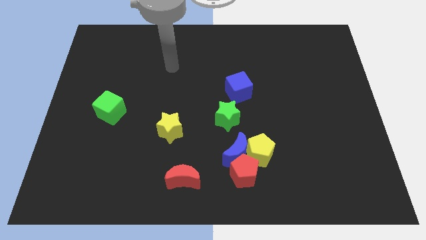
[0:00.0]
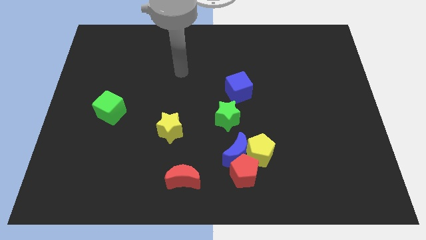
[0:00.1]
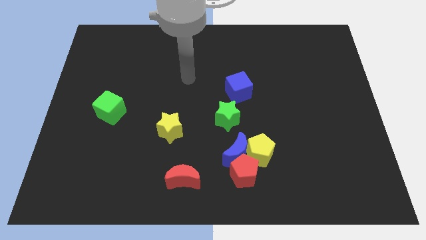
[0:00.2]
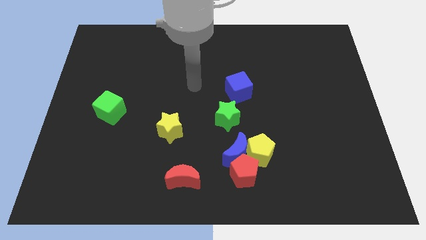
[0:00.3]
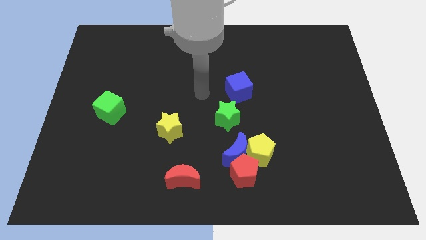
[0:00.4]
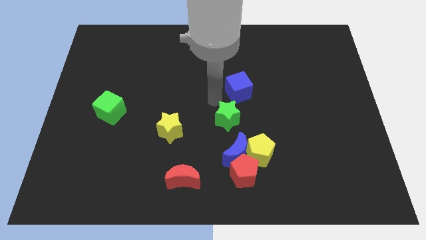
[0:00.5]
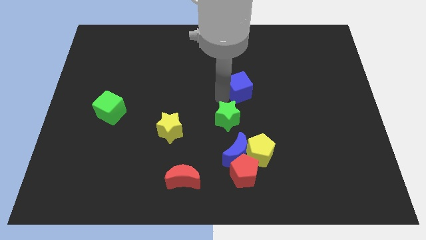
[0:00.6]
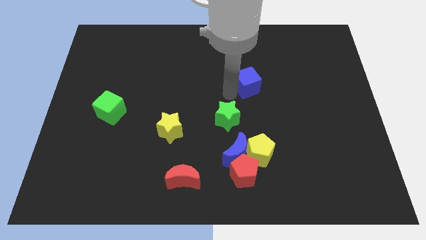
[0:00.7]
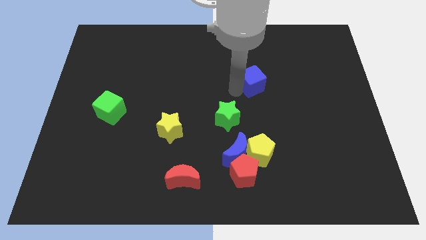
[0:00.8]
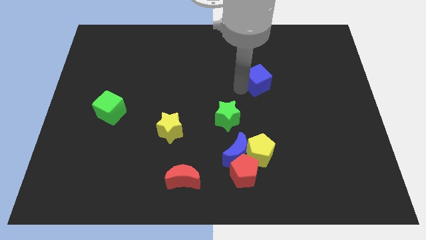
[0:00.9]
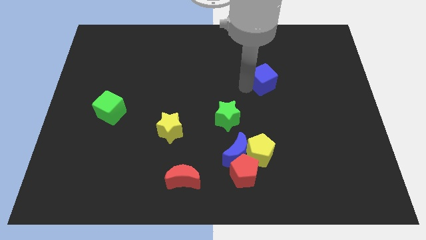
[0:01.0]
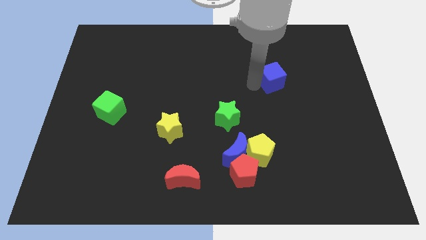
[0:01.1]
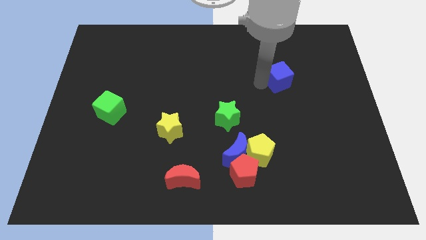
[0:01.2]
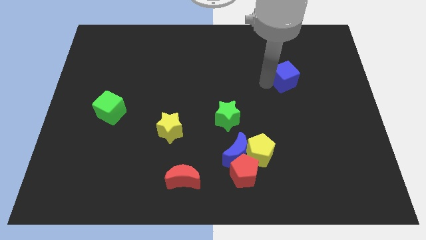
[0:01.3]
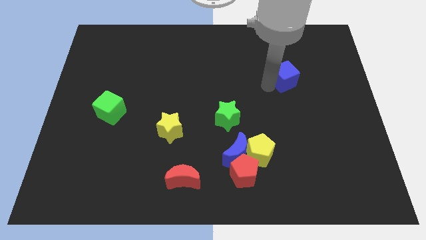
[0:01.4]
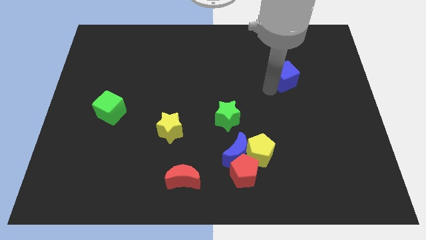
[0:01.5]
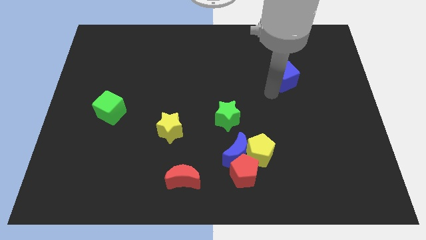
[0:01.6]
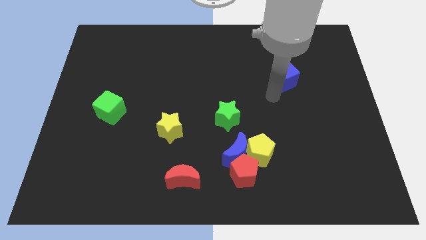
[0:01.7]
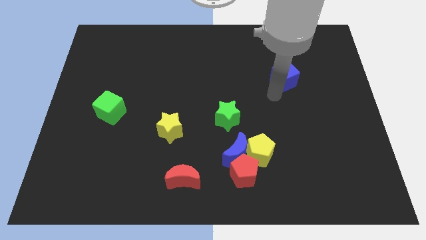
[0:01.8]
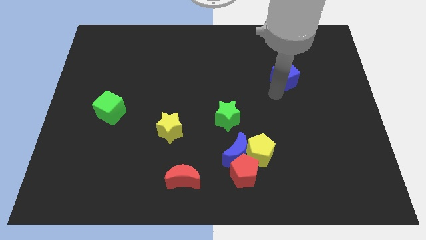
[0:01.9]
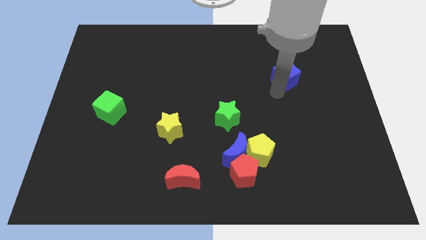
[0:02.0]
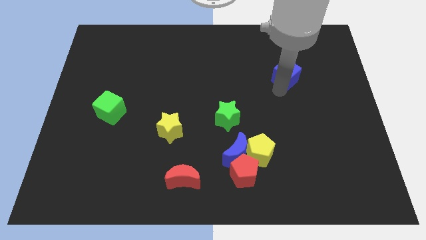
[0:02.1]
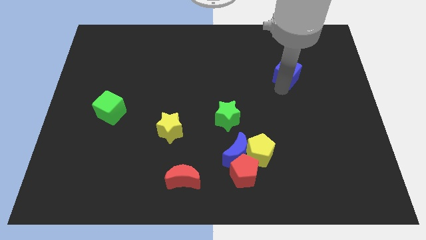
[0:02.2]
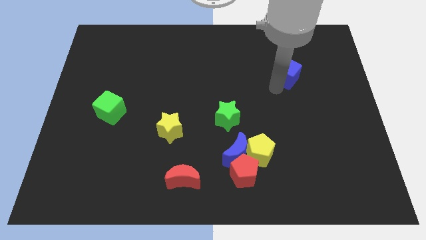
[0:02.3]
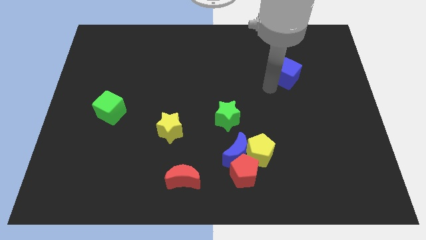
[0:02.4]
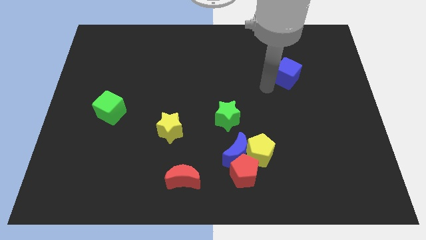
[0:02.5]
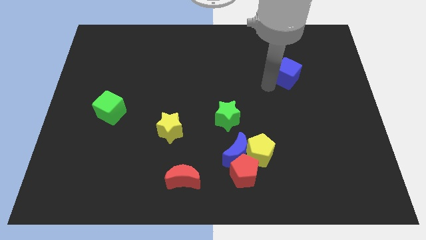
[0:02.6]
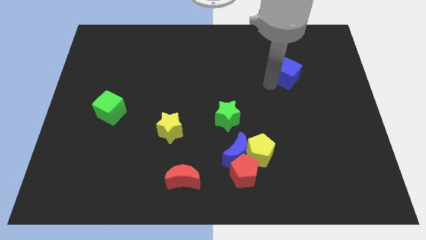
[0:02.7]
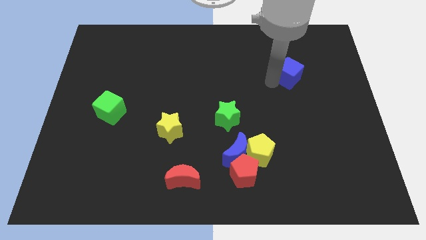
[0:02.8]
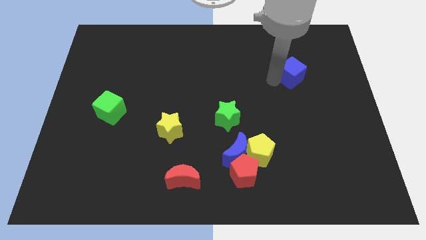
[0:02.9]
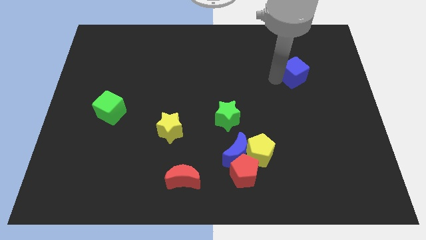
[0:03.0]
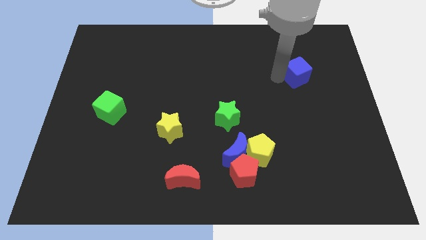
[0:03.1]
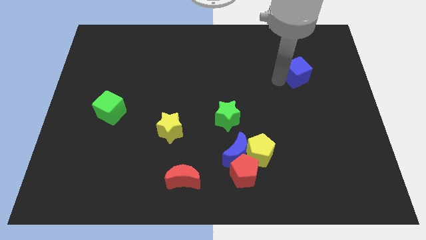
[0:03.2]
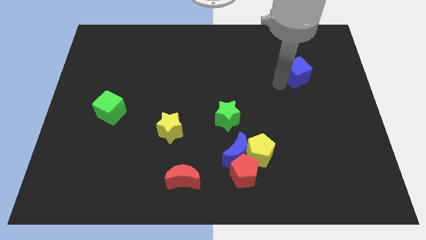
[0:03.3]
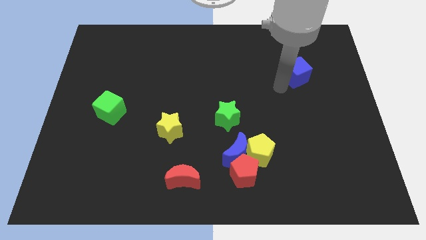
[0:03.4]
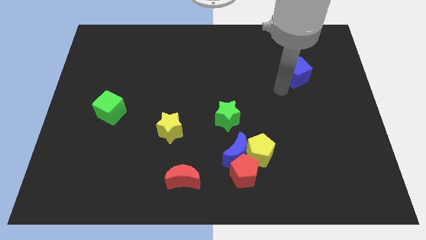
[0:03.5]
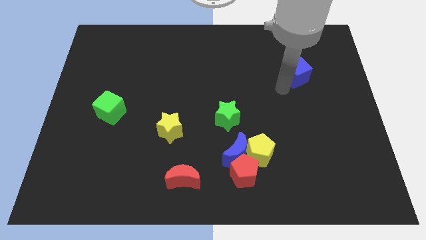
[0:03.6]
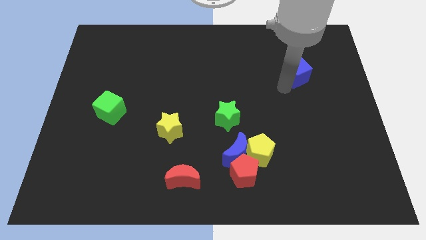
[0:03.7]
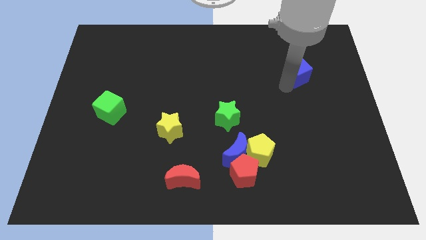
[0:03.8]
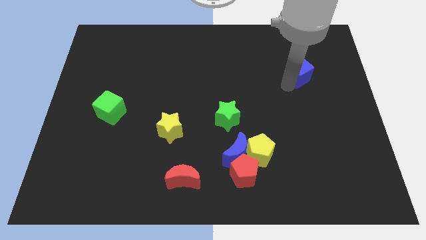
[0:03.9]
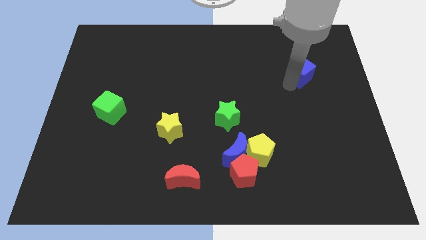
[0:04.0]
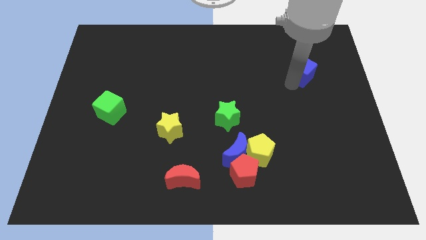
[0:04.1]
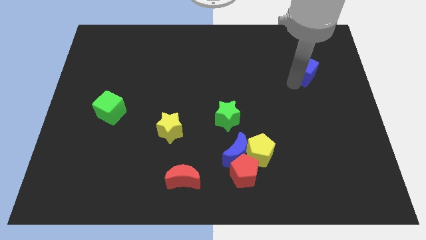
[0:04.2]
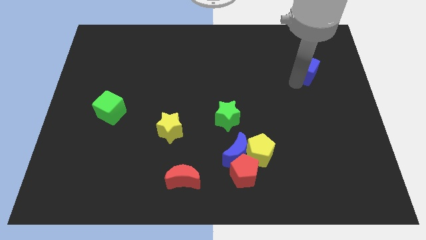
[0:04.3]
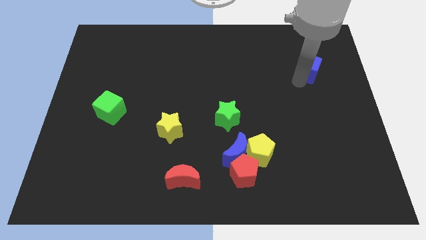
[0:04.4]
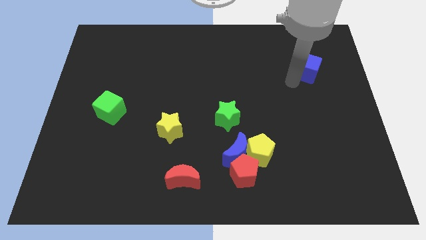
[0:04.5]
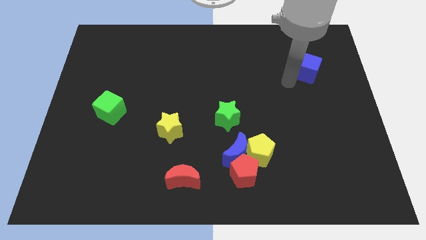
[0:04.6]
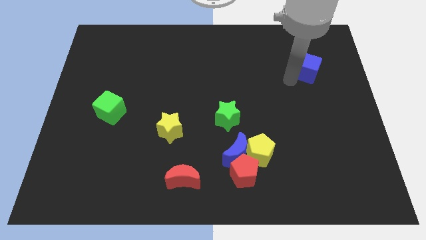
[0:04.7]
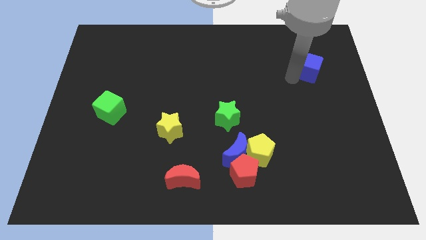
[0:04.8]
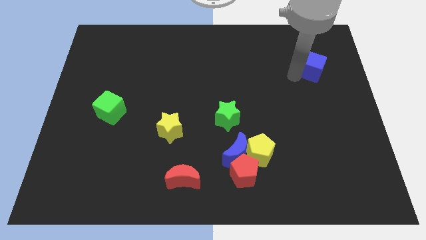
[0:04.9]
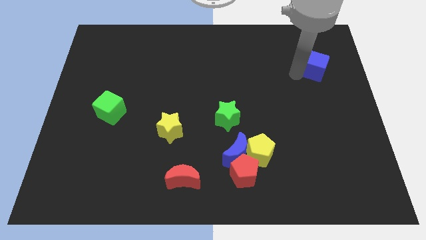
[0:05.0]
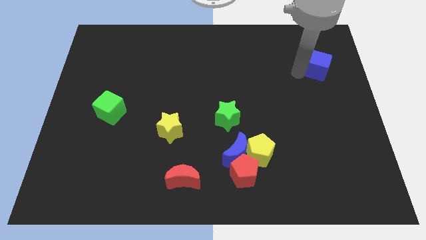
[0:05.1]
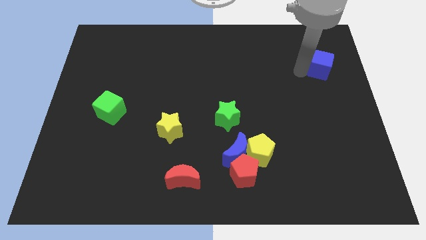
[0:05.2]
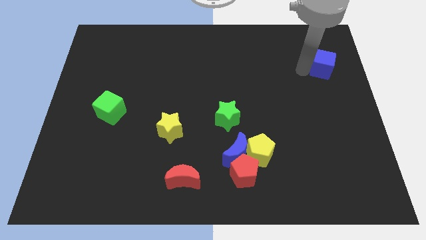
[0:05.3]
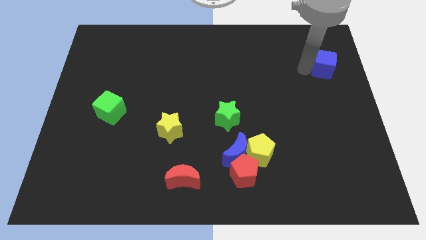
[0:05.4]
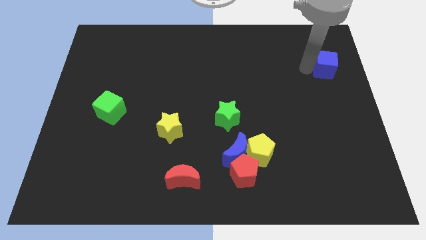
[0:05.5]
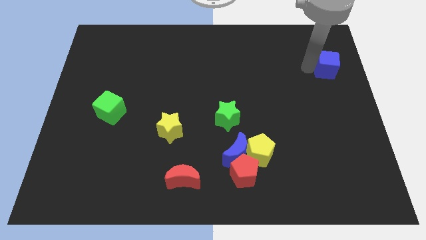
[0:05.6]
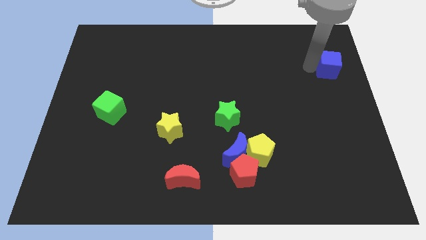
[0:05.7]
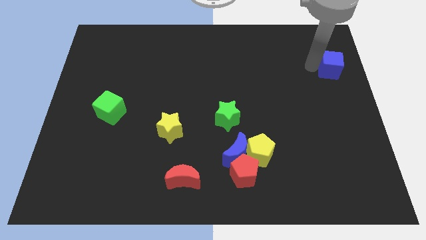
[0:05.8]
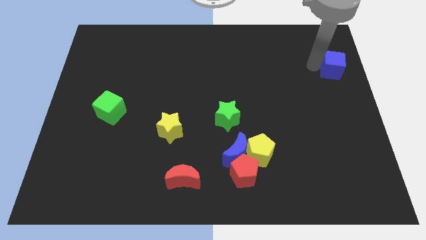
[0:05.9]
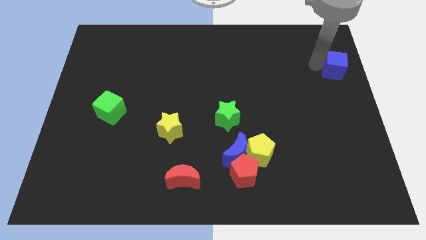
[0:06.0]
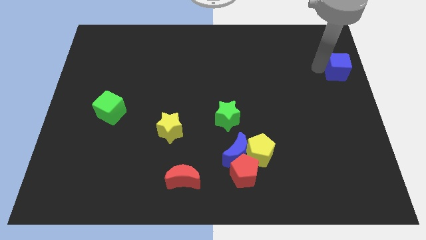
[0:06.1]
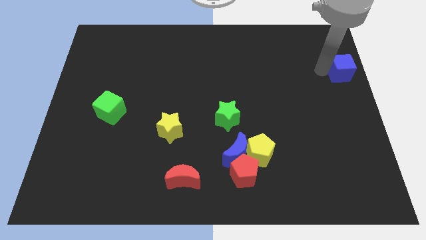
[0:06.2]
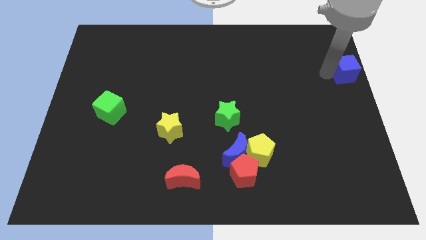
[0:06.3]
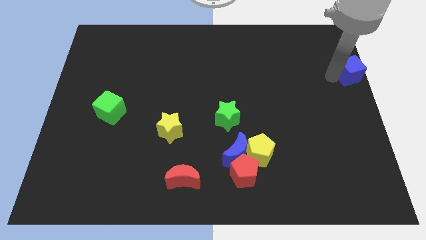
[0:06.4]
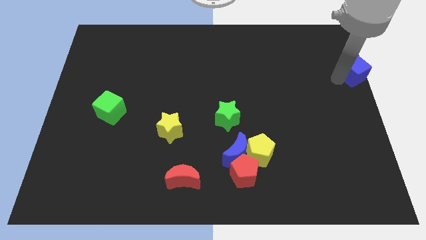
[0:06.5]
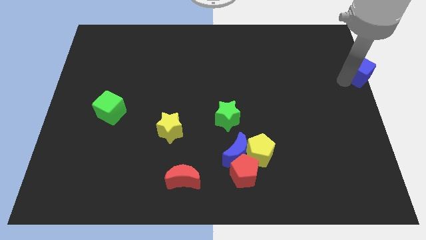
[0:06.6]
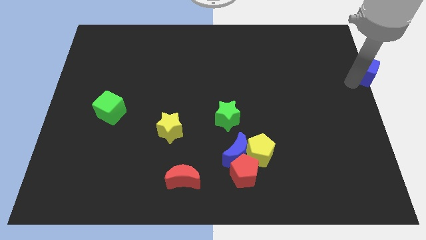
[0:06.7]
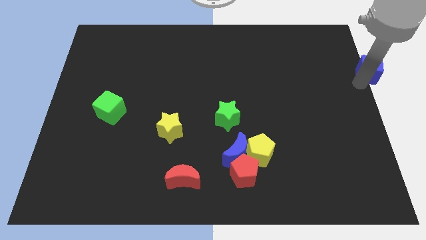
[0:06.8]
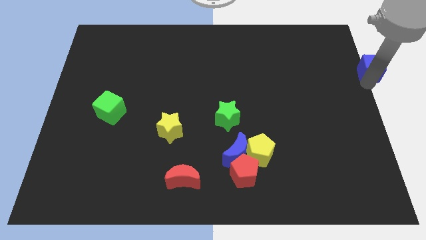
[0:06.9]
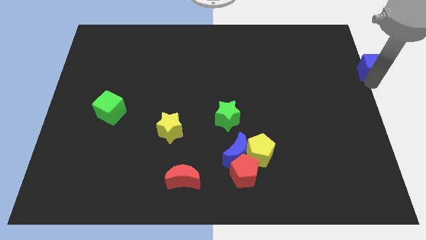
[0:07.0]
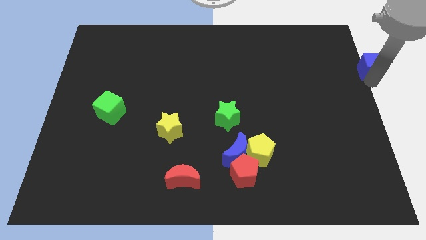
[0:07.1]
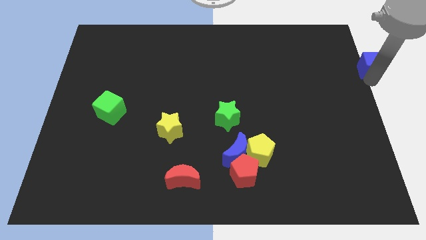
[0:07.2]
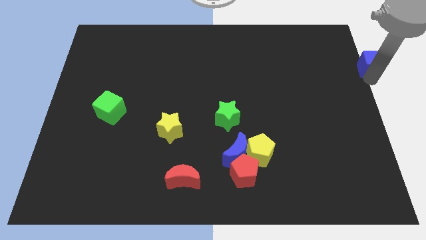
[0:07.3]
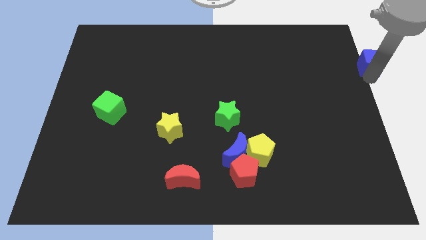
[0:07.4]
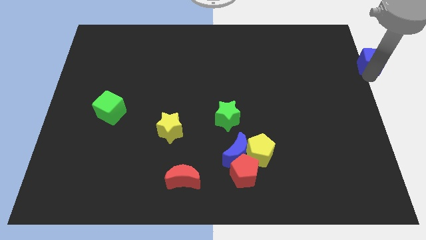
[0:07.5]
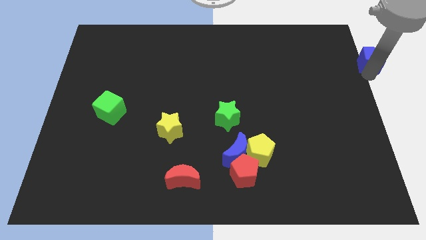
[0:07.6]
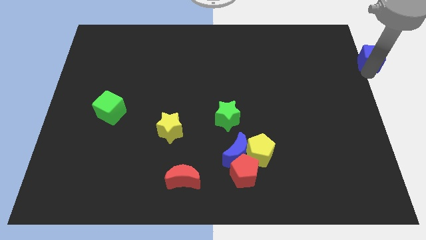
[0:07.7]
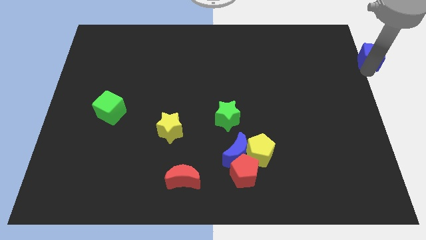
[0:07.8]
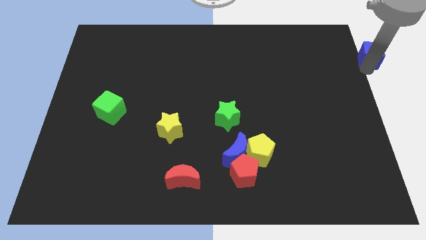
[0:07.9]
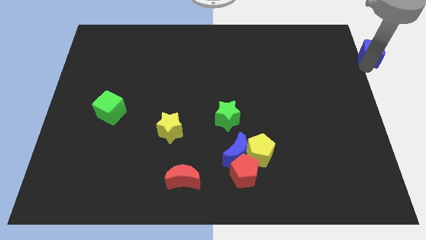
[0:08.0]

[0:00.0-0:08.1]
push the blue cube to the top right of the board
